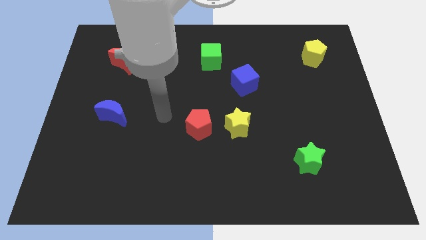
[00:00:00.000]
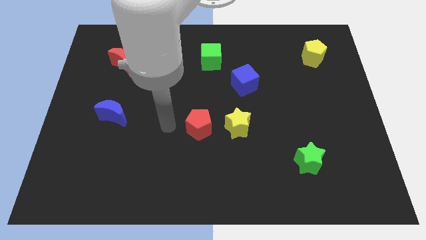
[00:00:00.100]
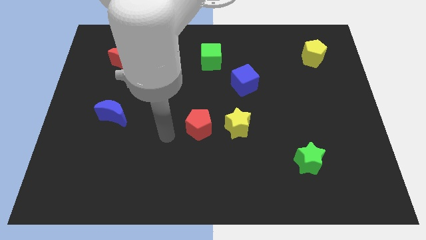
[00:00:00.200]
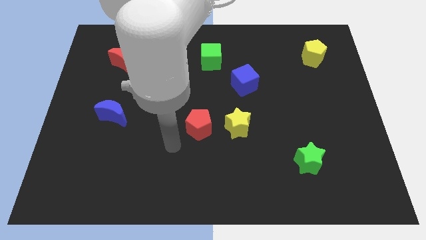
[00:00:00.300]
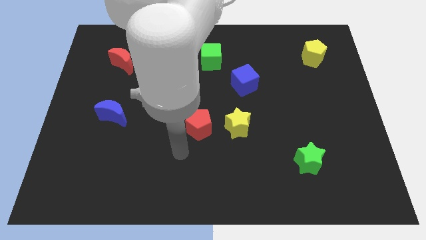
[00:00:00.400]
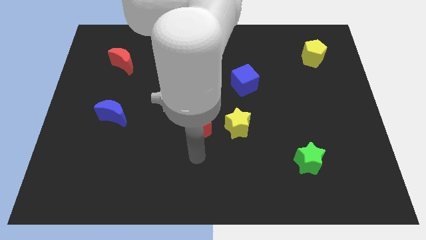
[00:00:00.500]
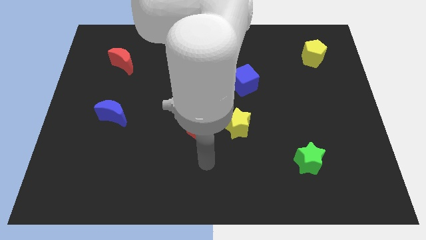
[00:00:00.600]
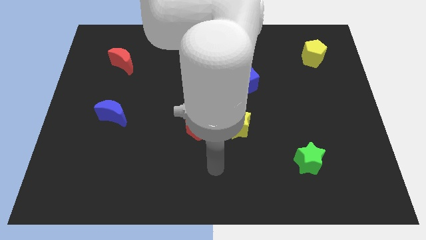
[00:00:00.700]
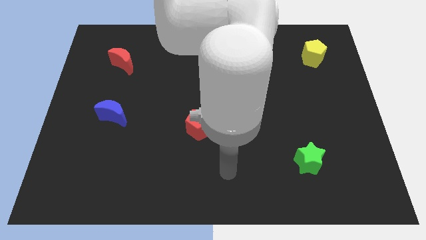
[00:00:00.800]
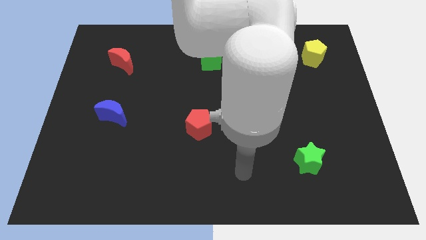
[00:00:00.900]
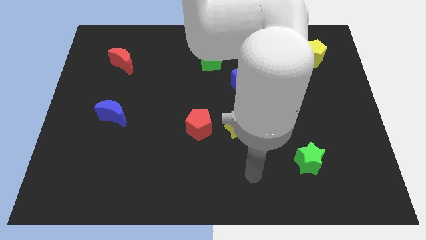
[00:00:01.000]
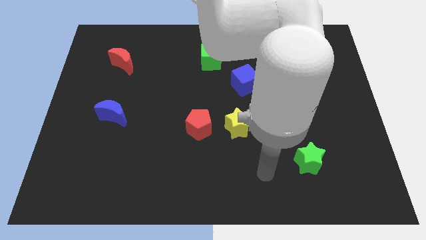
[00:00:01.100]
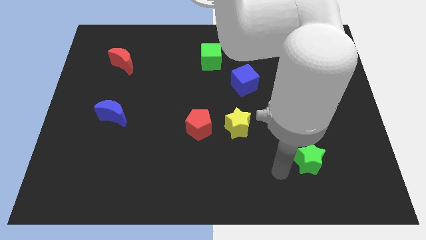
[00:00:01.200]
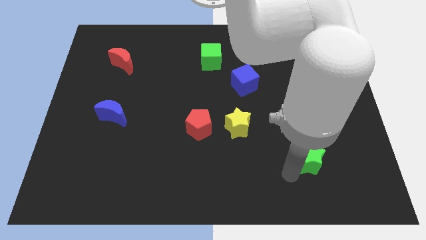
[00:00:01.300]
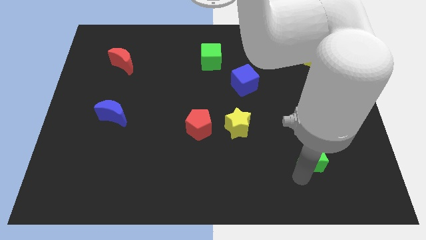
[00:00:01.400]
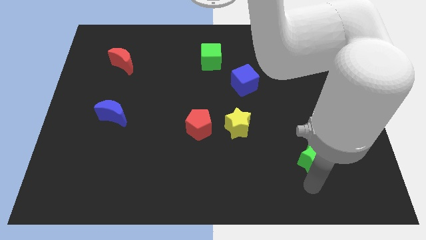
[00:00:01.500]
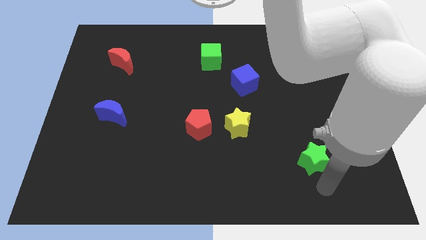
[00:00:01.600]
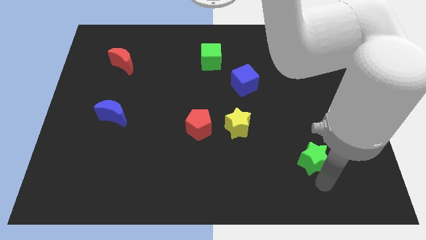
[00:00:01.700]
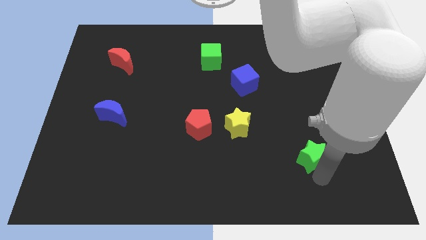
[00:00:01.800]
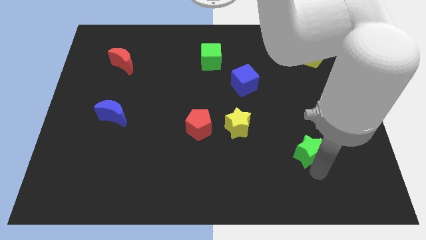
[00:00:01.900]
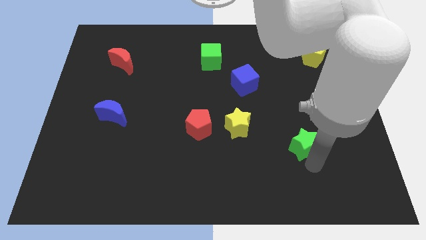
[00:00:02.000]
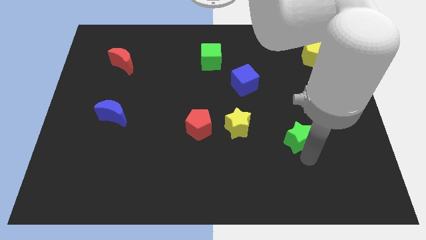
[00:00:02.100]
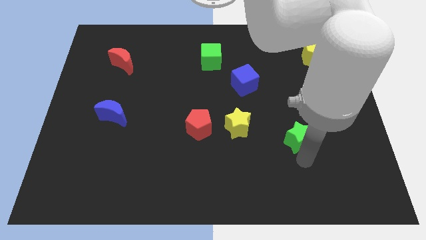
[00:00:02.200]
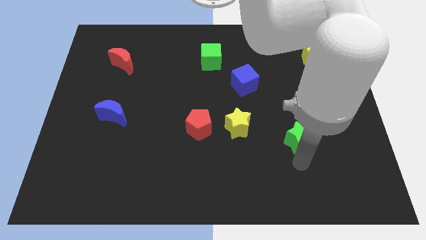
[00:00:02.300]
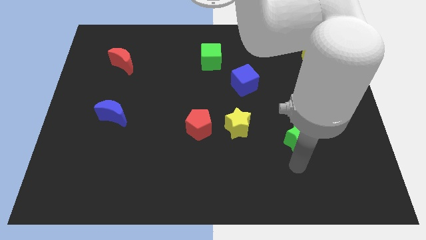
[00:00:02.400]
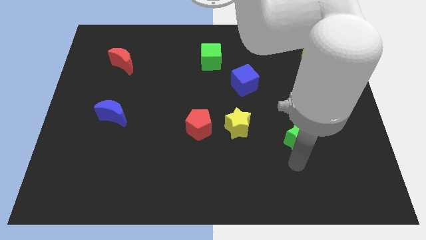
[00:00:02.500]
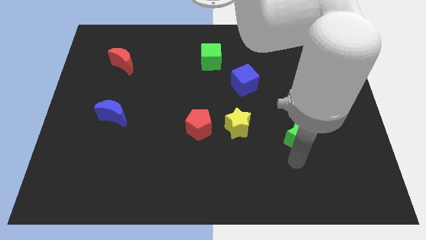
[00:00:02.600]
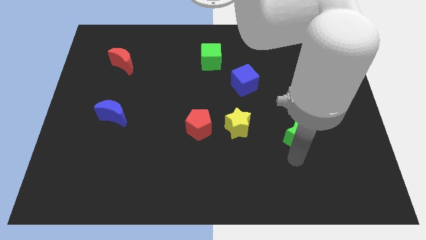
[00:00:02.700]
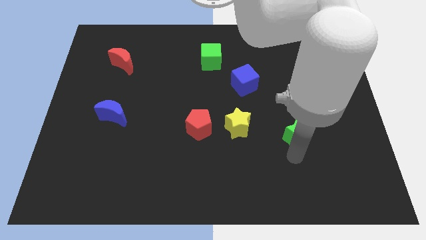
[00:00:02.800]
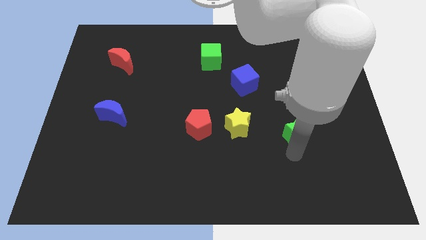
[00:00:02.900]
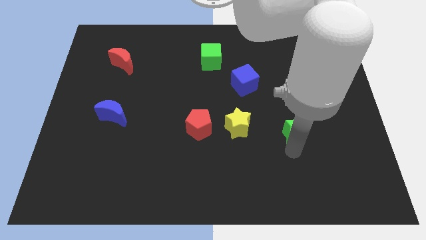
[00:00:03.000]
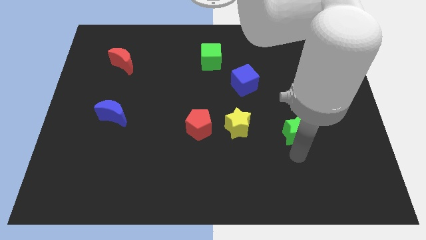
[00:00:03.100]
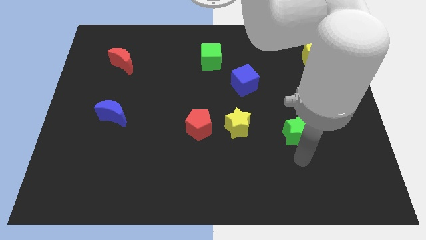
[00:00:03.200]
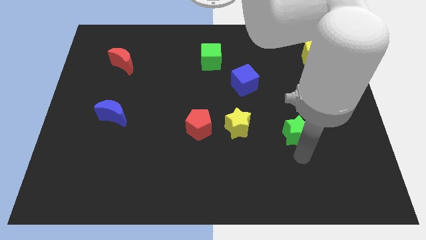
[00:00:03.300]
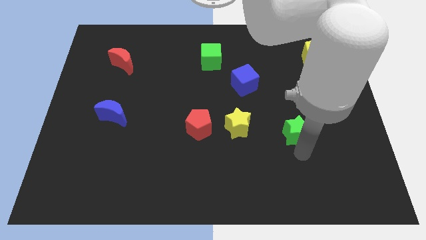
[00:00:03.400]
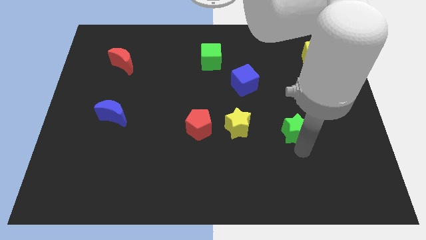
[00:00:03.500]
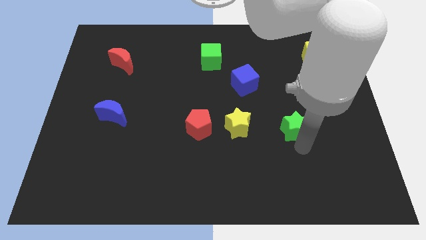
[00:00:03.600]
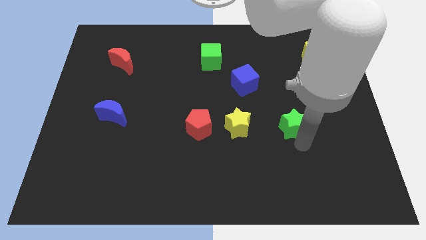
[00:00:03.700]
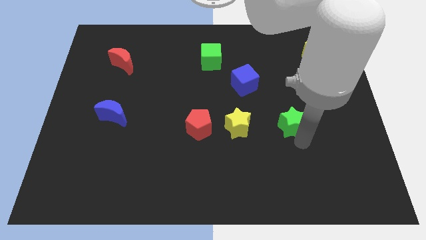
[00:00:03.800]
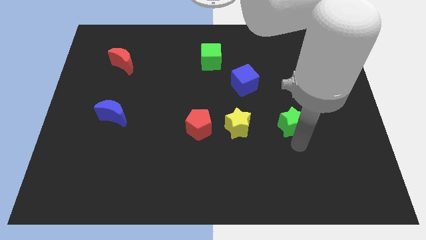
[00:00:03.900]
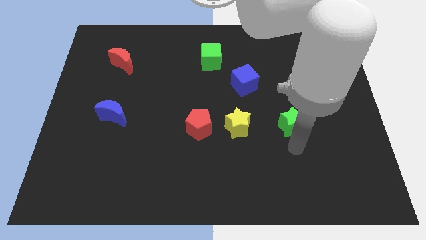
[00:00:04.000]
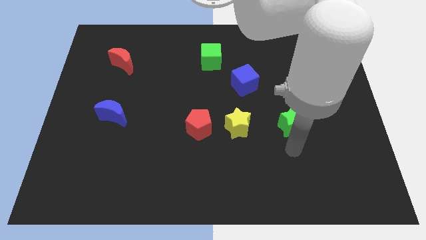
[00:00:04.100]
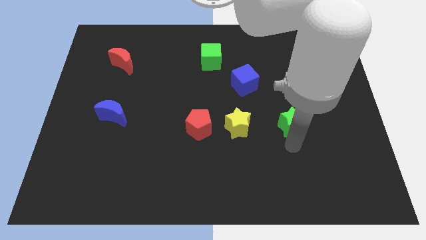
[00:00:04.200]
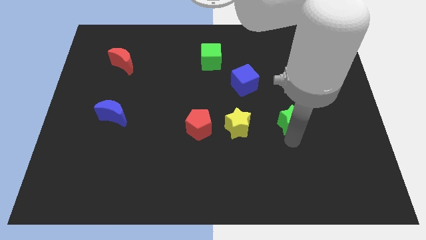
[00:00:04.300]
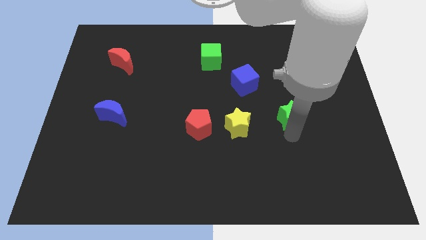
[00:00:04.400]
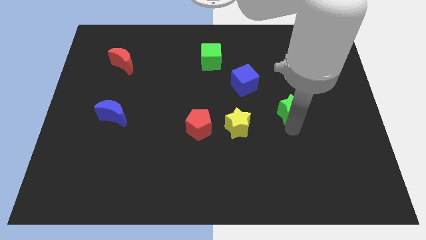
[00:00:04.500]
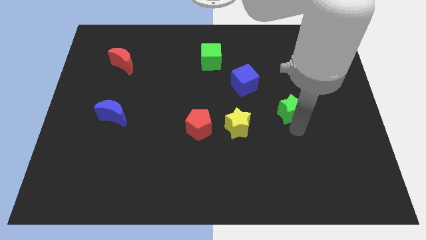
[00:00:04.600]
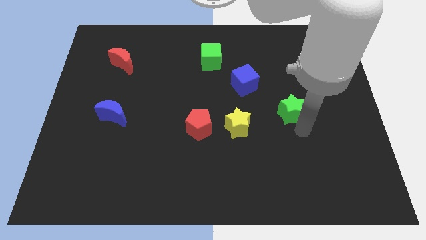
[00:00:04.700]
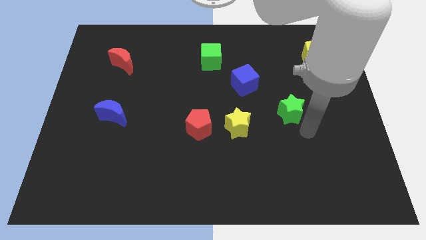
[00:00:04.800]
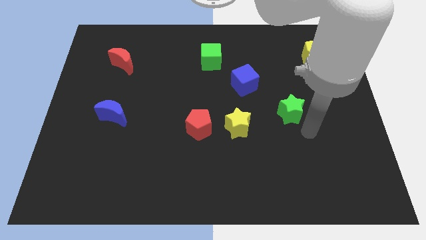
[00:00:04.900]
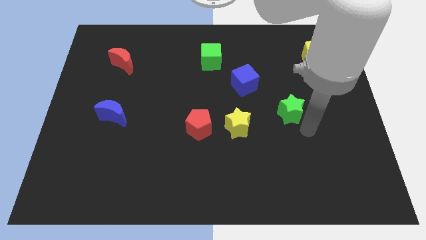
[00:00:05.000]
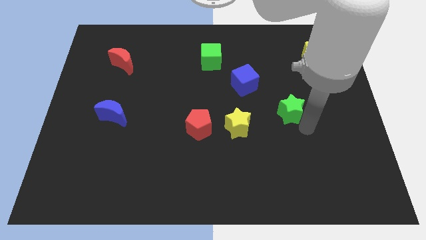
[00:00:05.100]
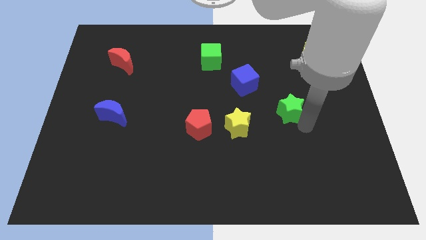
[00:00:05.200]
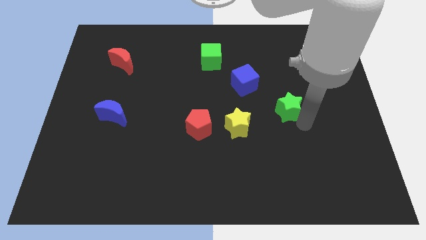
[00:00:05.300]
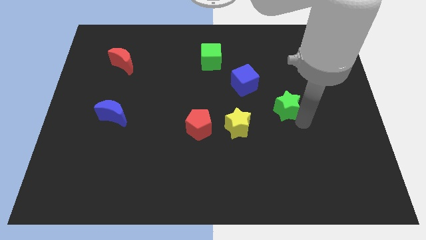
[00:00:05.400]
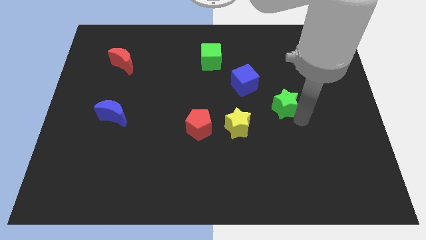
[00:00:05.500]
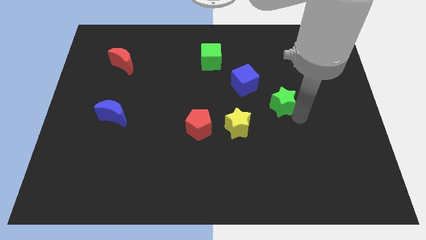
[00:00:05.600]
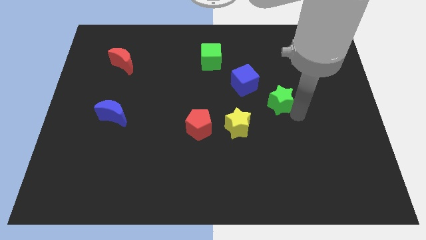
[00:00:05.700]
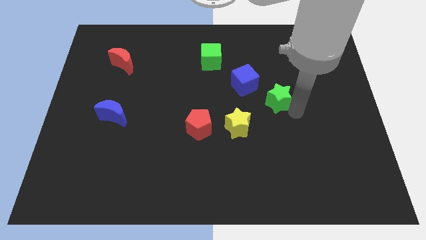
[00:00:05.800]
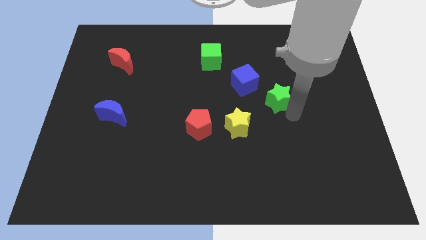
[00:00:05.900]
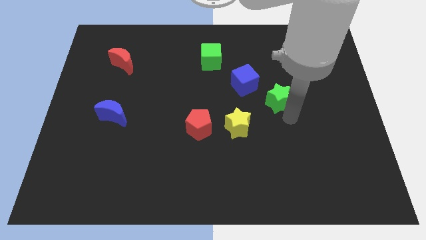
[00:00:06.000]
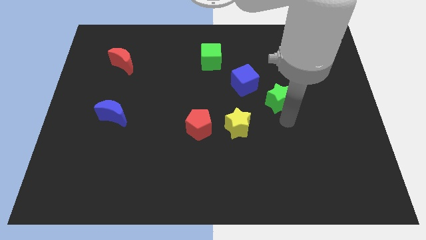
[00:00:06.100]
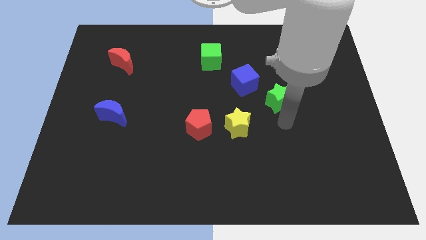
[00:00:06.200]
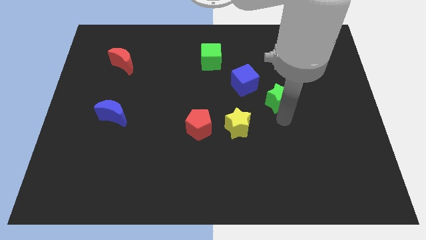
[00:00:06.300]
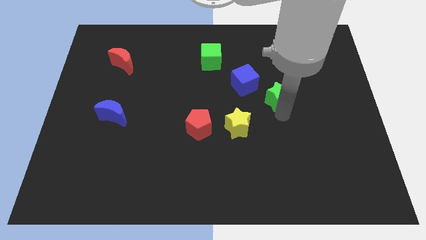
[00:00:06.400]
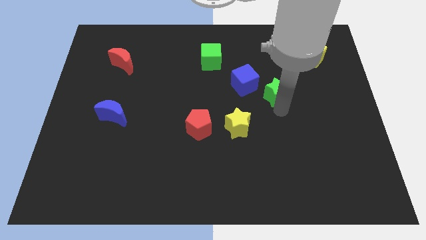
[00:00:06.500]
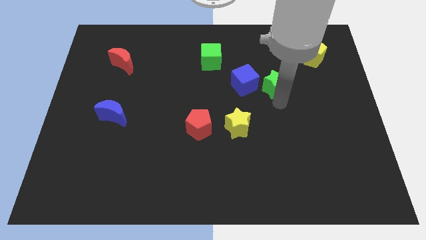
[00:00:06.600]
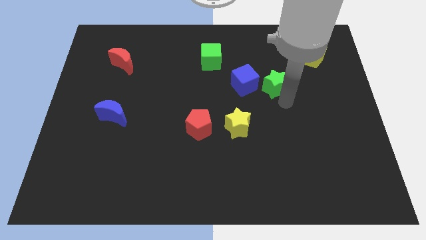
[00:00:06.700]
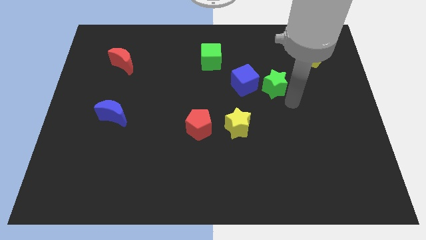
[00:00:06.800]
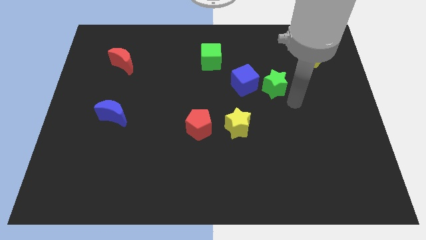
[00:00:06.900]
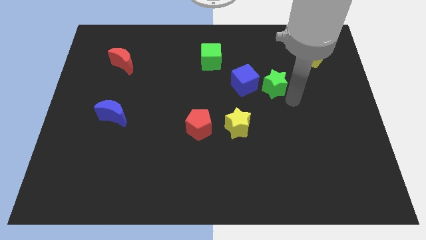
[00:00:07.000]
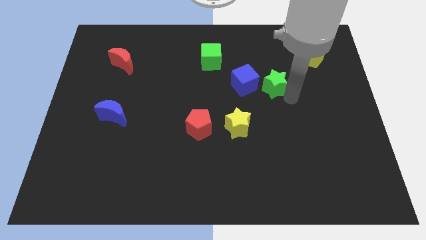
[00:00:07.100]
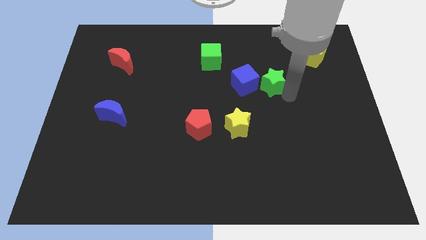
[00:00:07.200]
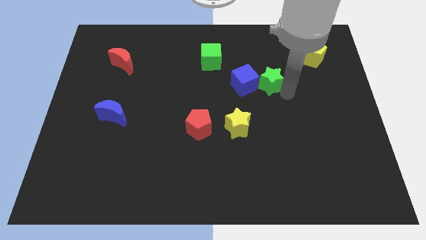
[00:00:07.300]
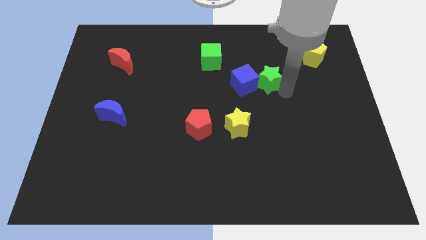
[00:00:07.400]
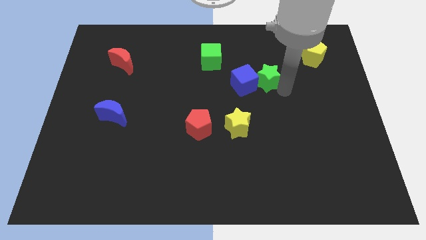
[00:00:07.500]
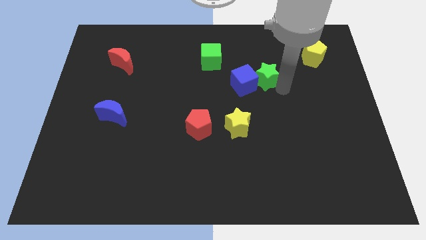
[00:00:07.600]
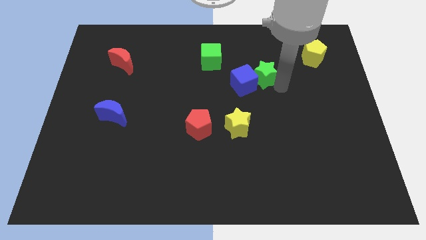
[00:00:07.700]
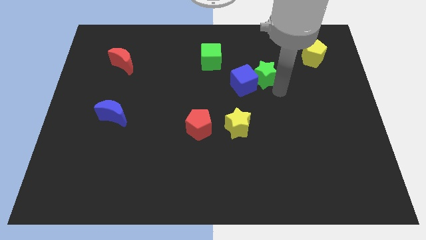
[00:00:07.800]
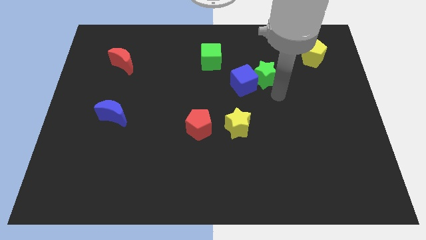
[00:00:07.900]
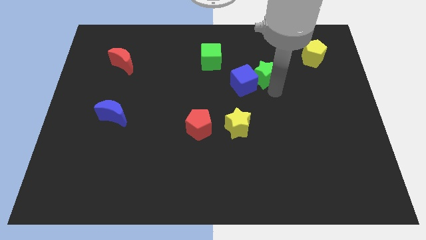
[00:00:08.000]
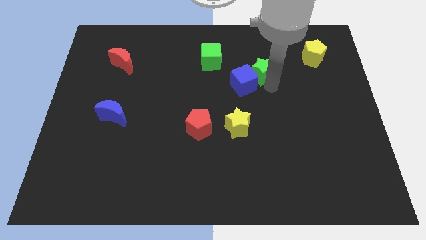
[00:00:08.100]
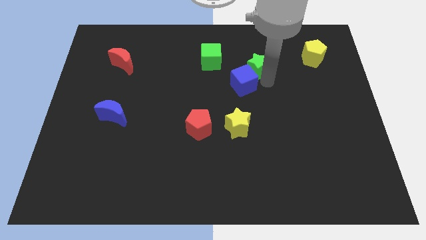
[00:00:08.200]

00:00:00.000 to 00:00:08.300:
move the green star to the right of the green cube
